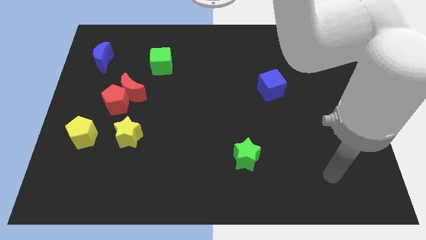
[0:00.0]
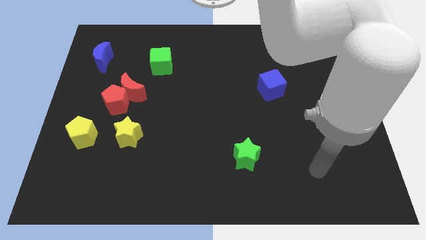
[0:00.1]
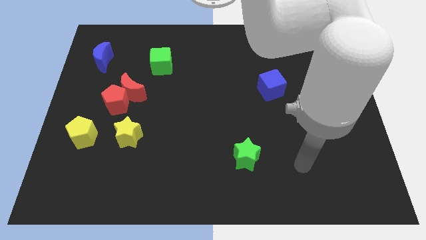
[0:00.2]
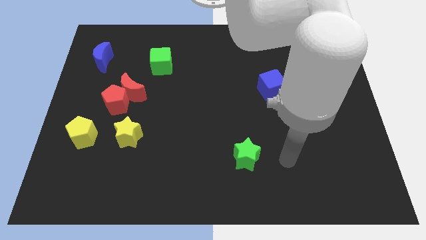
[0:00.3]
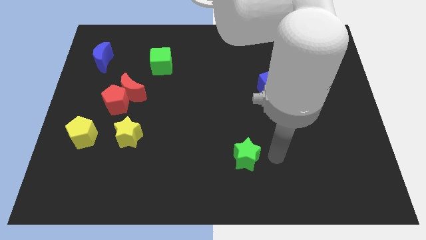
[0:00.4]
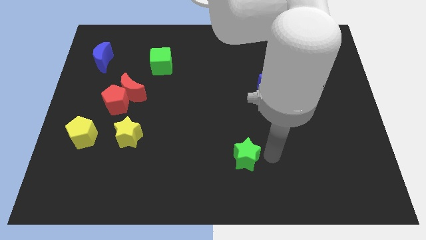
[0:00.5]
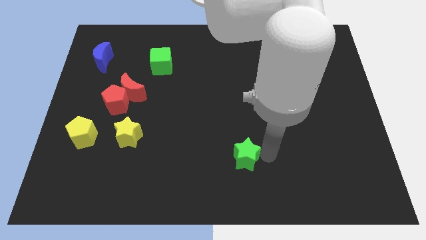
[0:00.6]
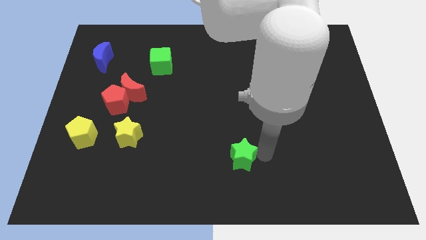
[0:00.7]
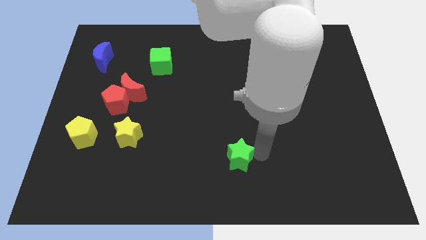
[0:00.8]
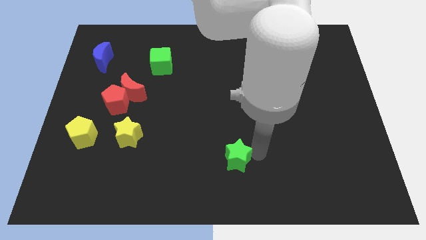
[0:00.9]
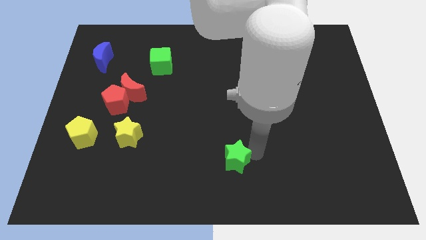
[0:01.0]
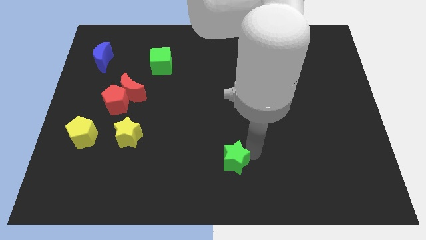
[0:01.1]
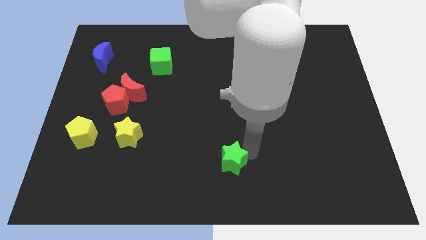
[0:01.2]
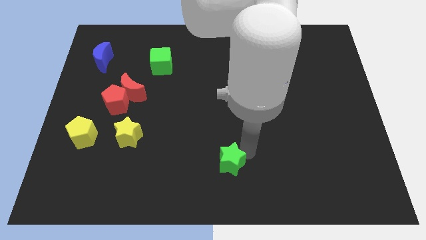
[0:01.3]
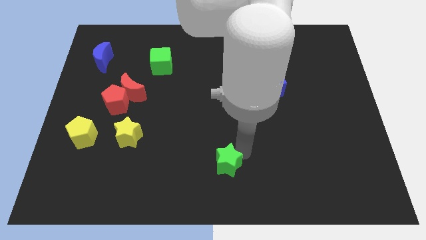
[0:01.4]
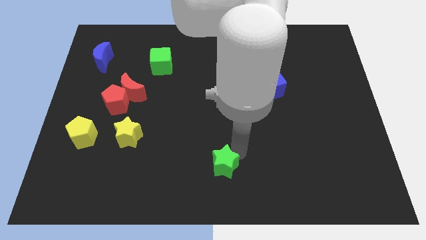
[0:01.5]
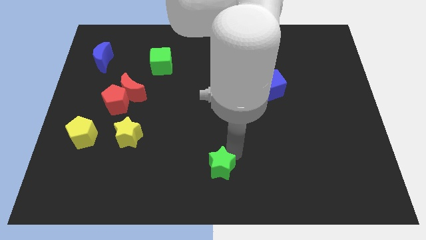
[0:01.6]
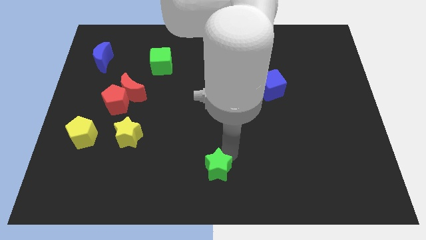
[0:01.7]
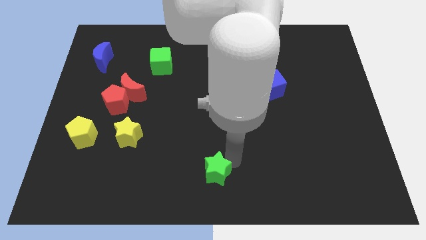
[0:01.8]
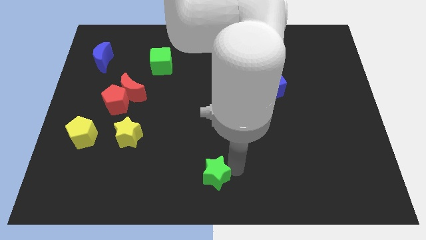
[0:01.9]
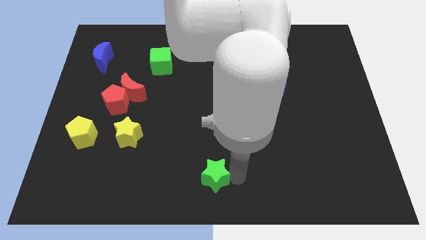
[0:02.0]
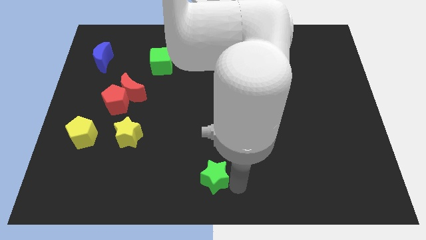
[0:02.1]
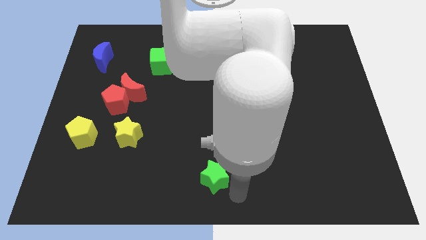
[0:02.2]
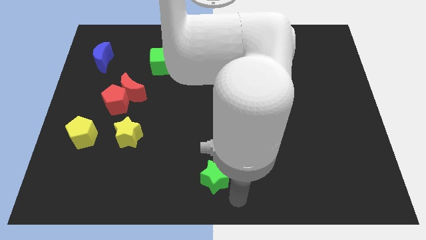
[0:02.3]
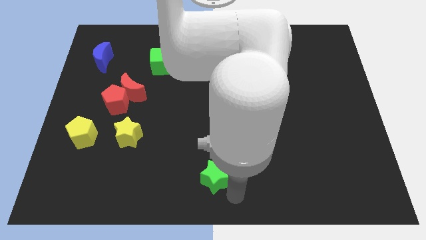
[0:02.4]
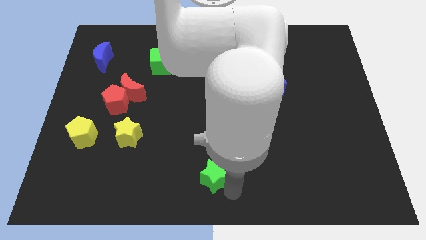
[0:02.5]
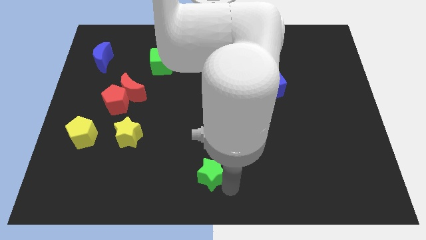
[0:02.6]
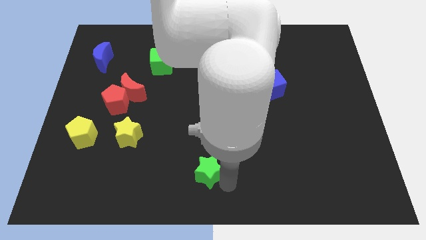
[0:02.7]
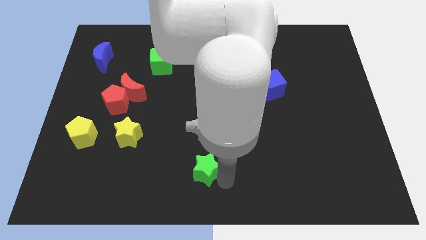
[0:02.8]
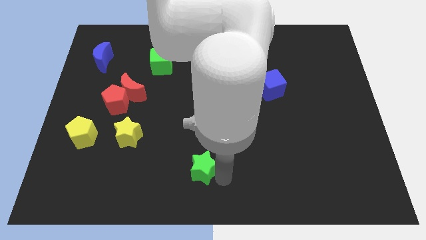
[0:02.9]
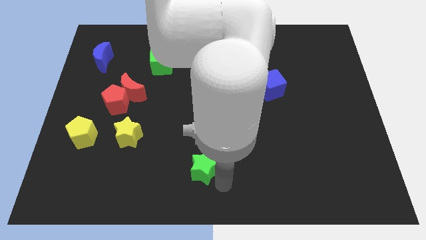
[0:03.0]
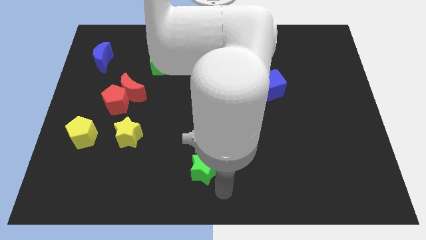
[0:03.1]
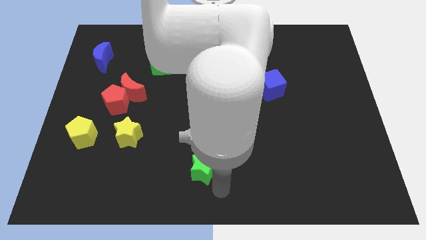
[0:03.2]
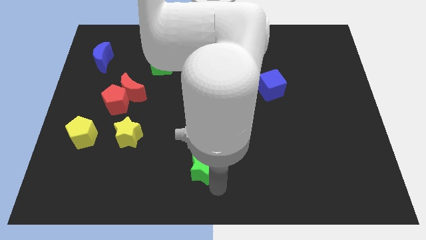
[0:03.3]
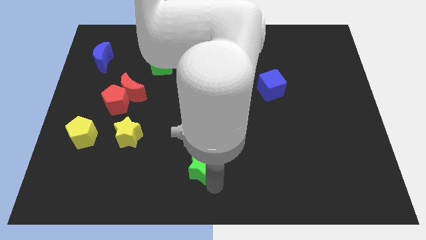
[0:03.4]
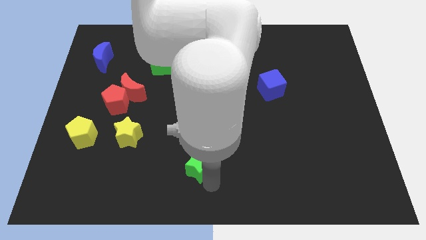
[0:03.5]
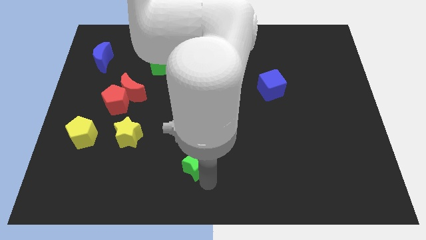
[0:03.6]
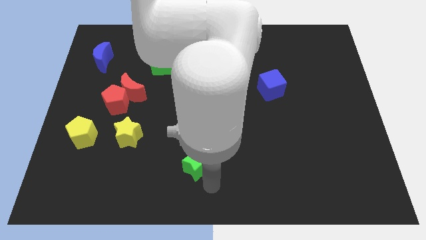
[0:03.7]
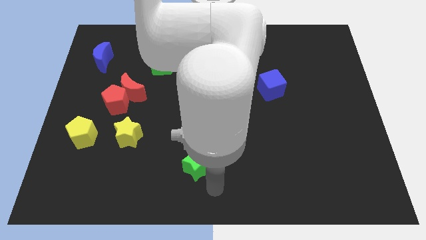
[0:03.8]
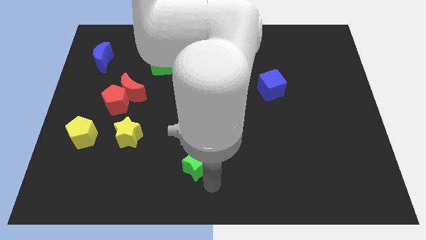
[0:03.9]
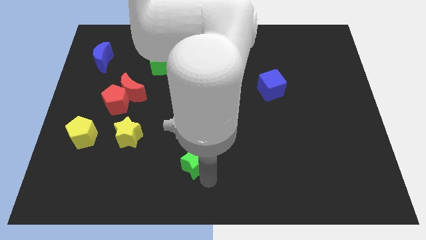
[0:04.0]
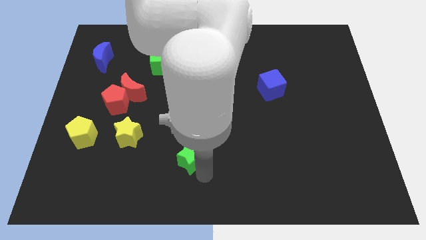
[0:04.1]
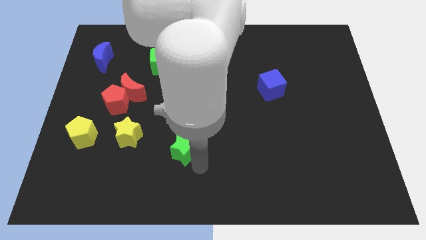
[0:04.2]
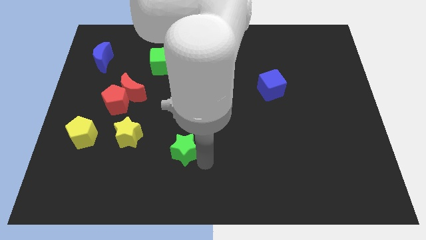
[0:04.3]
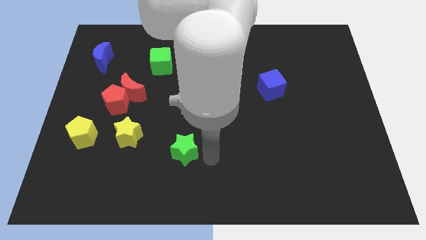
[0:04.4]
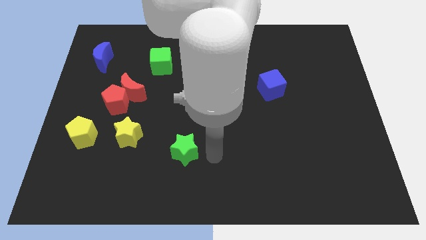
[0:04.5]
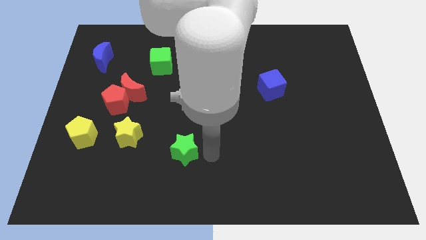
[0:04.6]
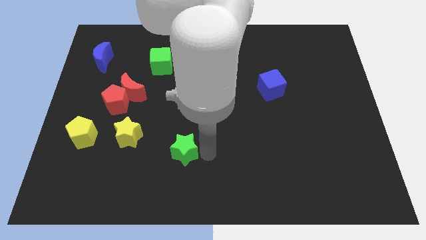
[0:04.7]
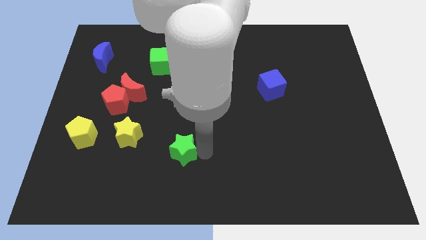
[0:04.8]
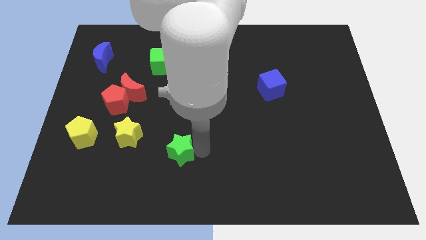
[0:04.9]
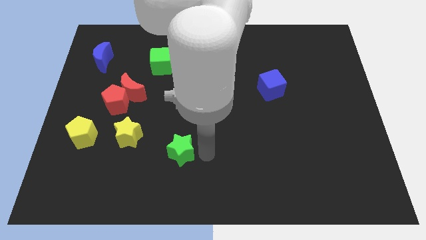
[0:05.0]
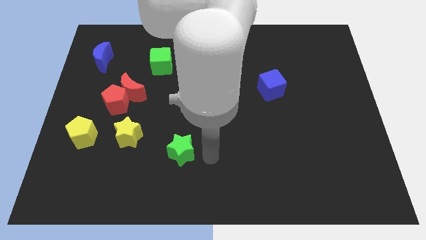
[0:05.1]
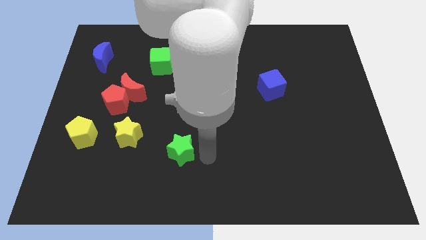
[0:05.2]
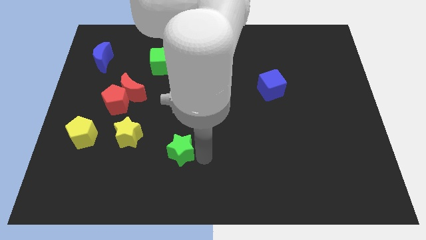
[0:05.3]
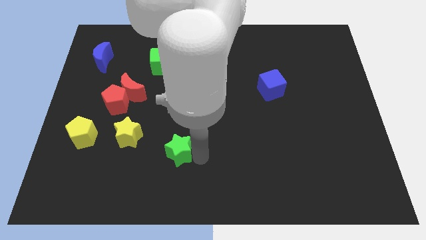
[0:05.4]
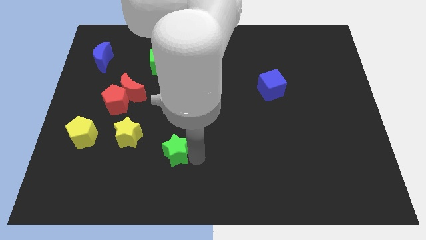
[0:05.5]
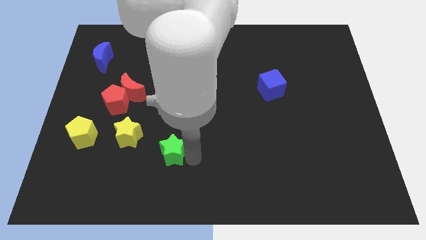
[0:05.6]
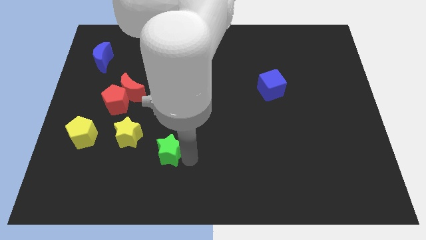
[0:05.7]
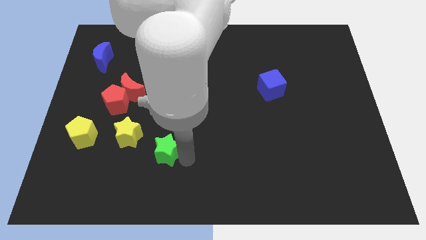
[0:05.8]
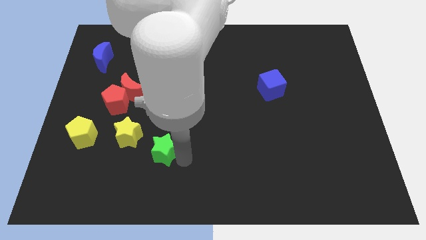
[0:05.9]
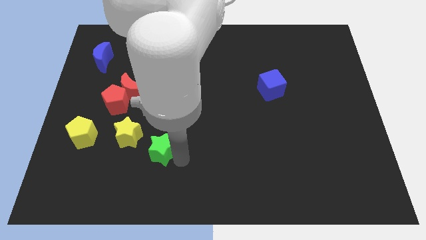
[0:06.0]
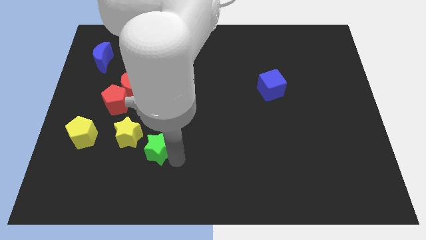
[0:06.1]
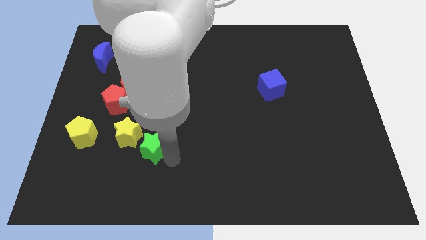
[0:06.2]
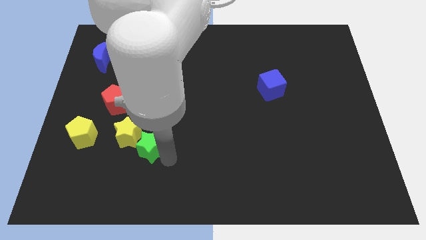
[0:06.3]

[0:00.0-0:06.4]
push the green star to the yellow star
